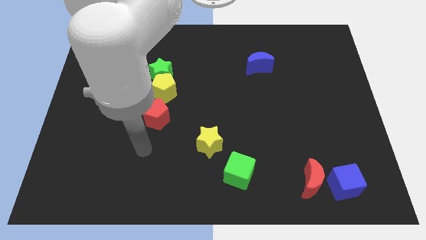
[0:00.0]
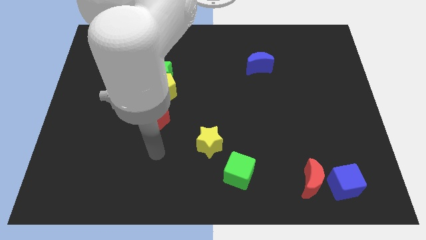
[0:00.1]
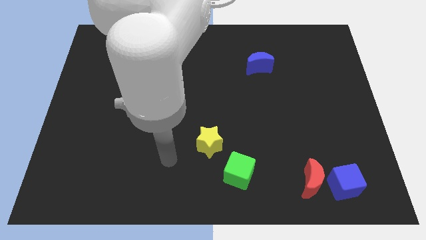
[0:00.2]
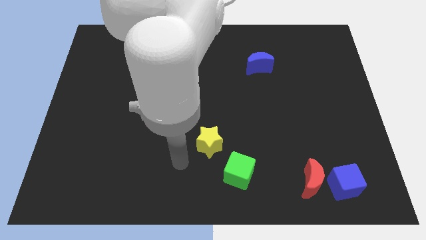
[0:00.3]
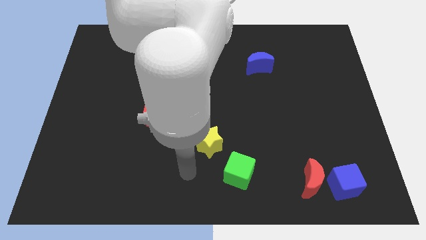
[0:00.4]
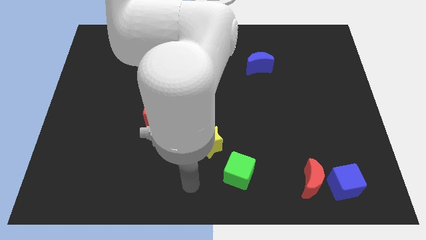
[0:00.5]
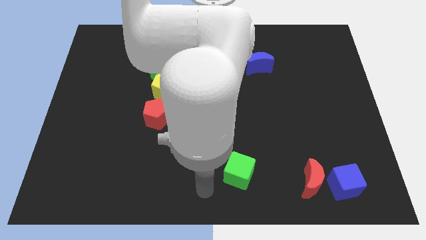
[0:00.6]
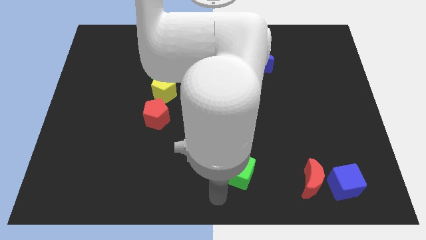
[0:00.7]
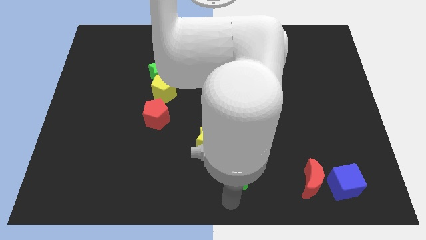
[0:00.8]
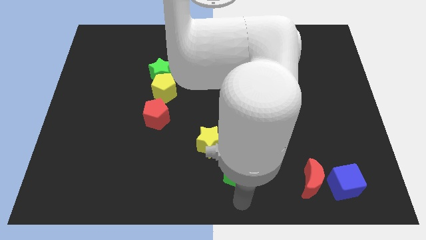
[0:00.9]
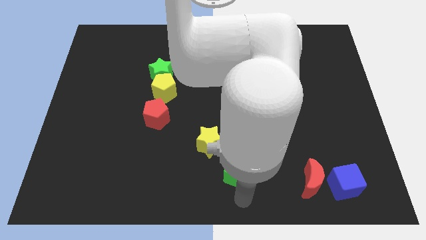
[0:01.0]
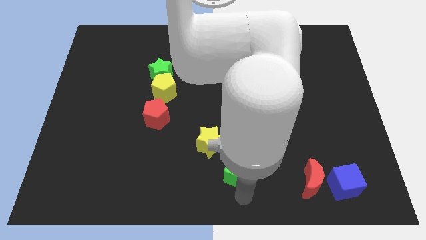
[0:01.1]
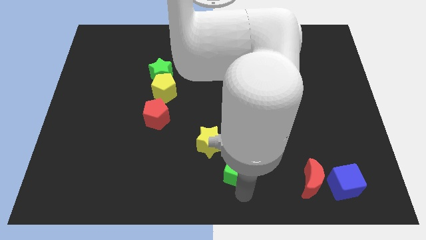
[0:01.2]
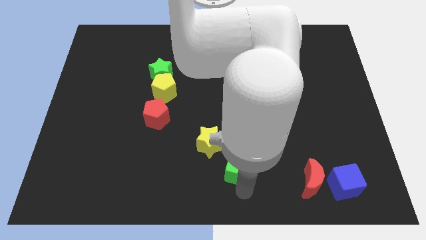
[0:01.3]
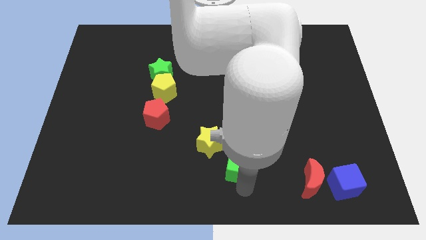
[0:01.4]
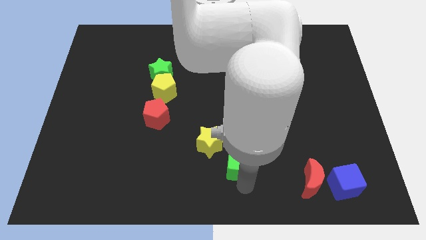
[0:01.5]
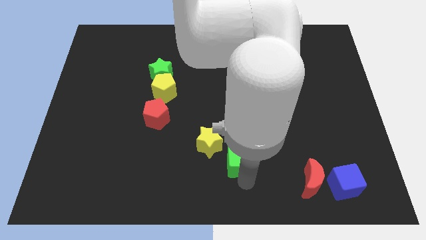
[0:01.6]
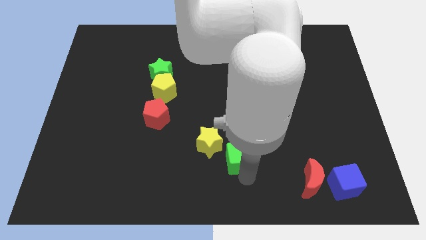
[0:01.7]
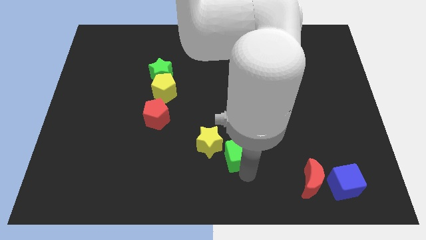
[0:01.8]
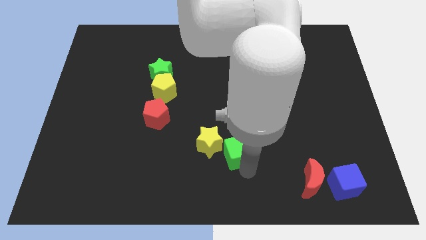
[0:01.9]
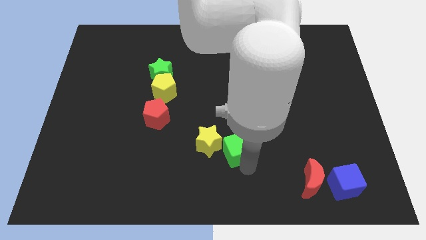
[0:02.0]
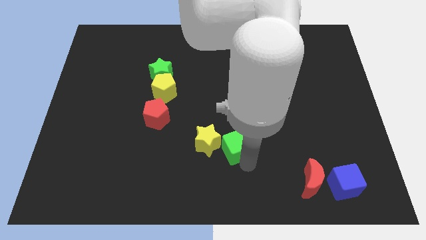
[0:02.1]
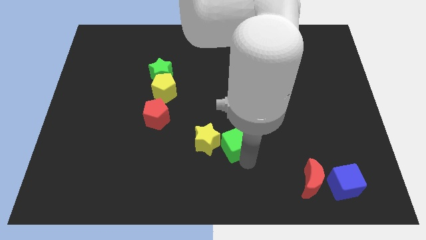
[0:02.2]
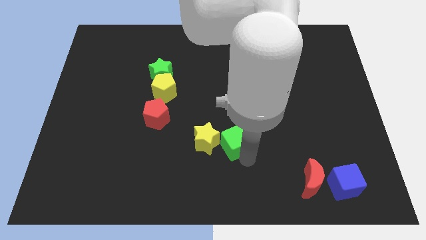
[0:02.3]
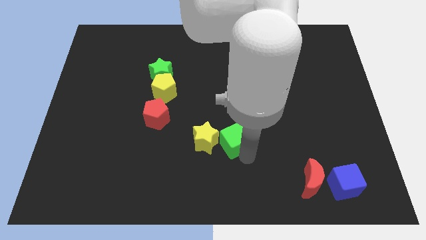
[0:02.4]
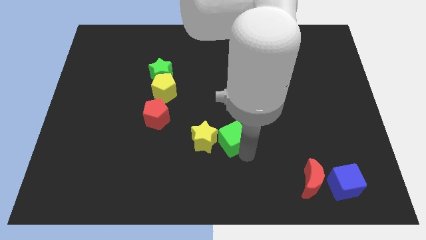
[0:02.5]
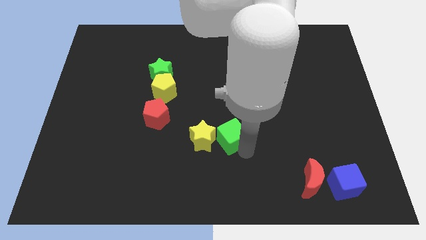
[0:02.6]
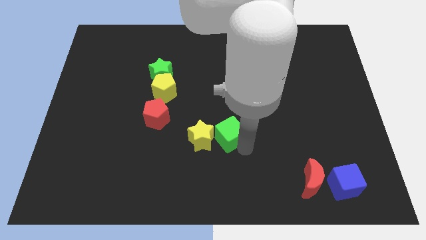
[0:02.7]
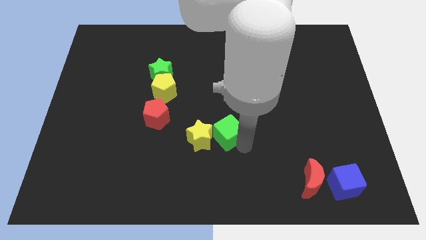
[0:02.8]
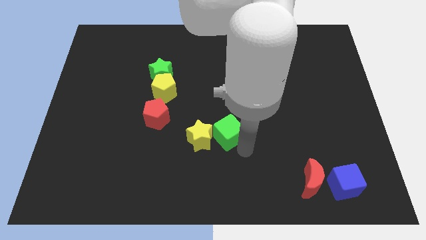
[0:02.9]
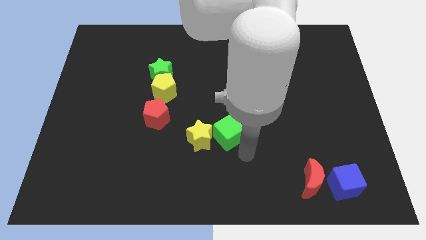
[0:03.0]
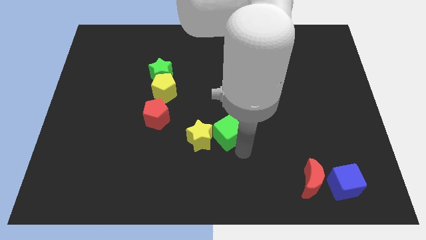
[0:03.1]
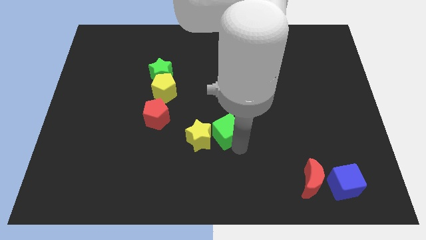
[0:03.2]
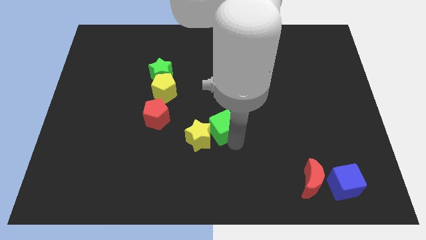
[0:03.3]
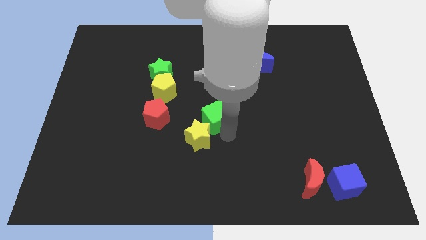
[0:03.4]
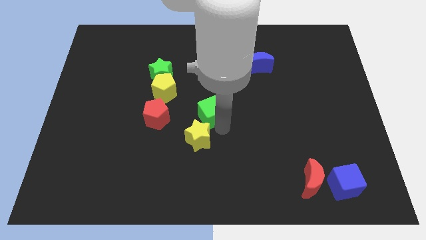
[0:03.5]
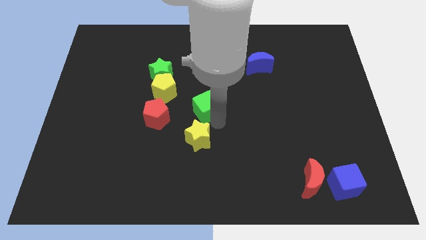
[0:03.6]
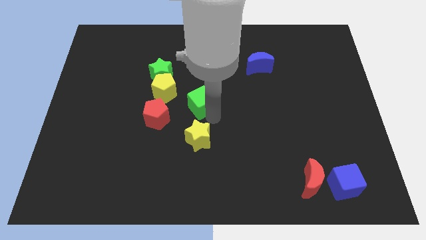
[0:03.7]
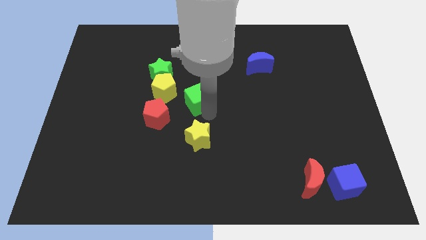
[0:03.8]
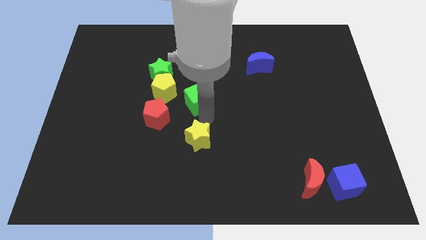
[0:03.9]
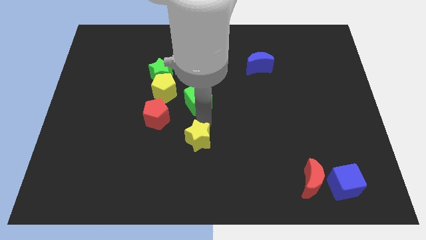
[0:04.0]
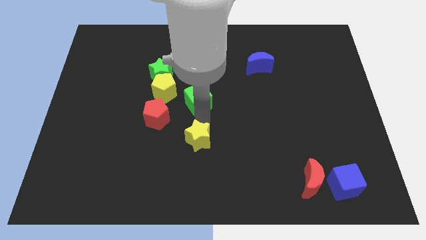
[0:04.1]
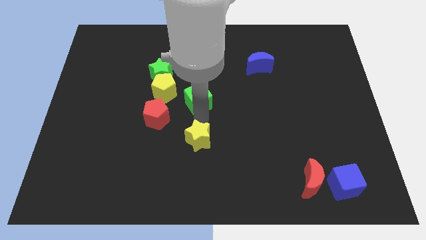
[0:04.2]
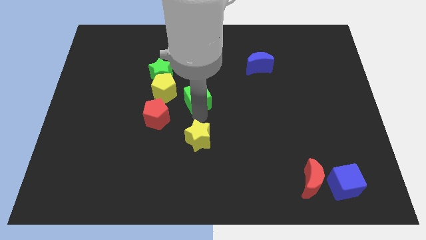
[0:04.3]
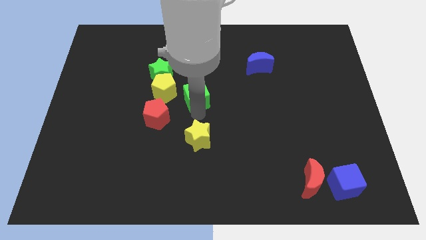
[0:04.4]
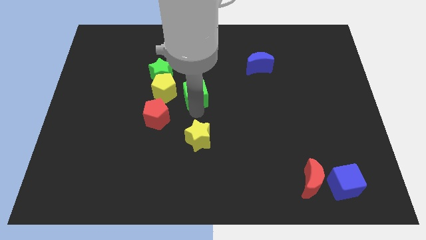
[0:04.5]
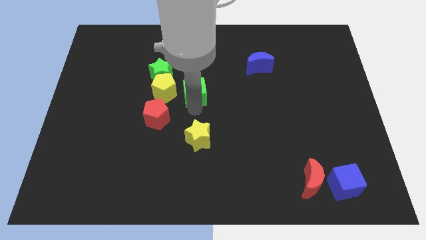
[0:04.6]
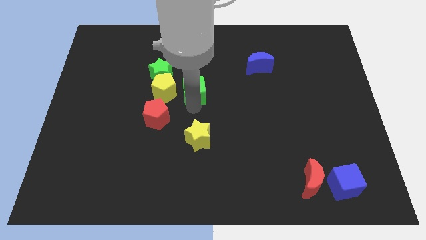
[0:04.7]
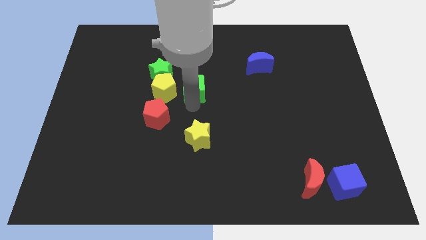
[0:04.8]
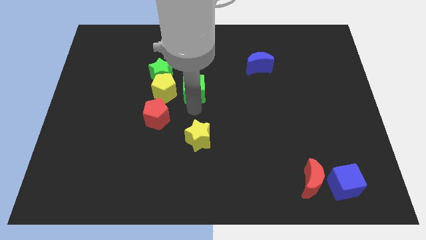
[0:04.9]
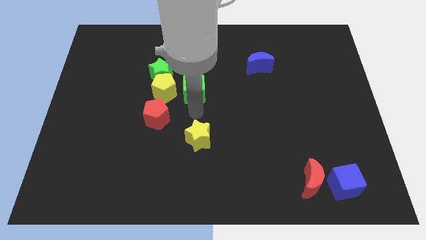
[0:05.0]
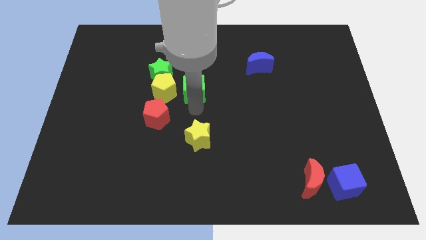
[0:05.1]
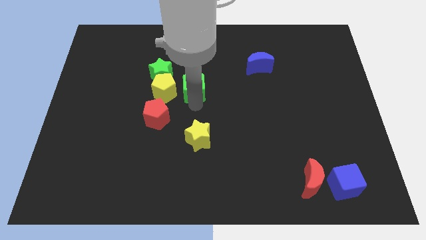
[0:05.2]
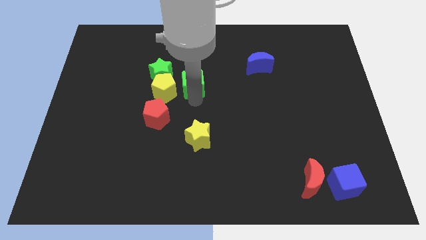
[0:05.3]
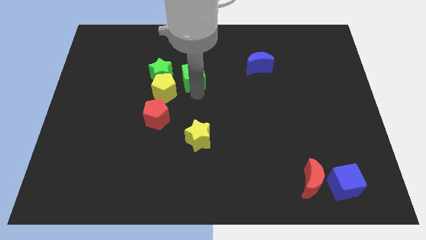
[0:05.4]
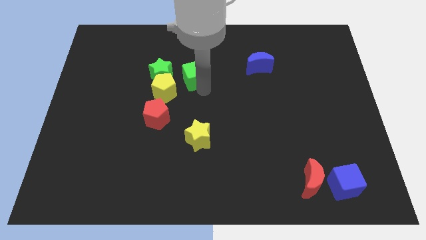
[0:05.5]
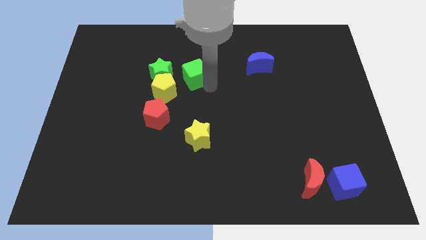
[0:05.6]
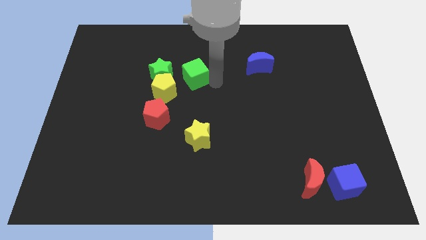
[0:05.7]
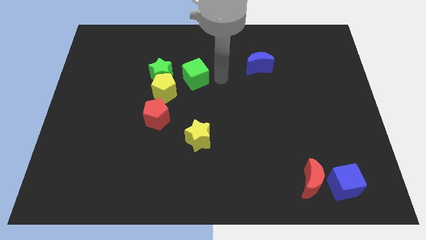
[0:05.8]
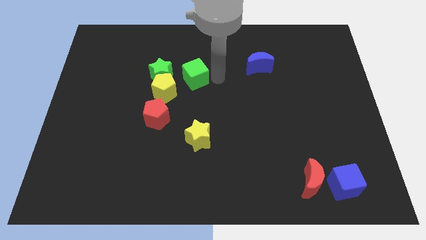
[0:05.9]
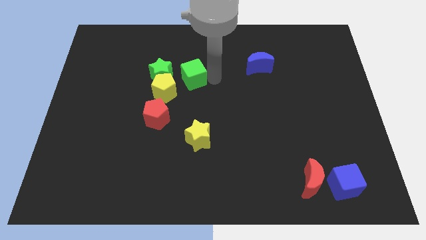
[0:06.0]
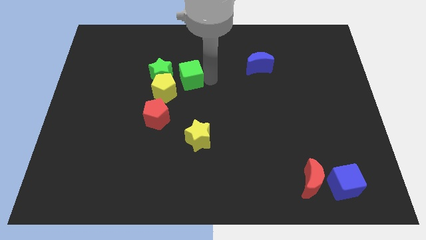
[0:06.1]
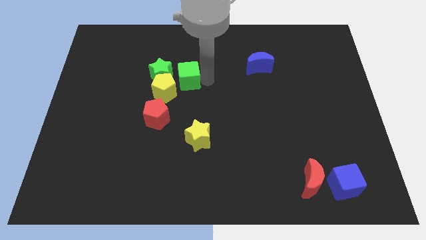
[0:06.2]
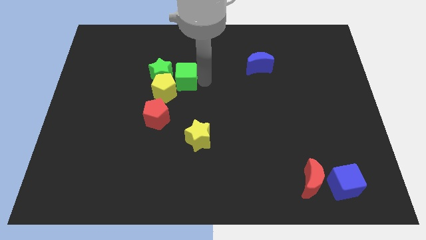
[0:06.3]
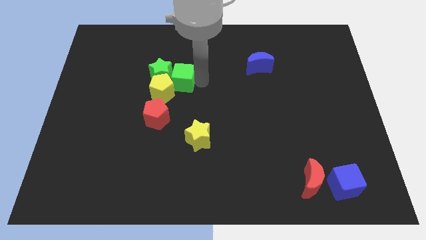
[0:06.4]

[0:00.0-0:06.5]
slide the green cube next to the green star

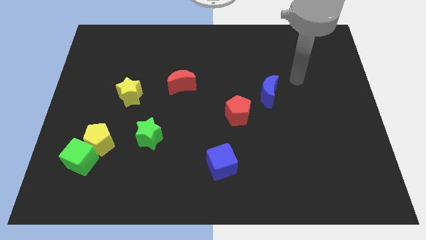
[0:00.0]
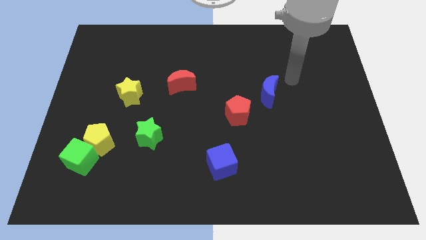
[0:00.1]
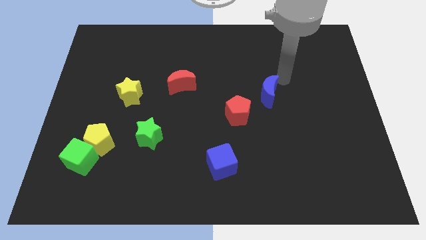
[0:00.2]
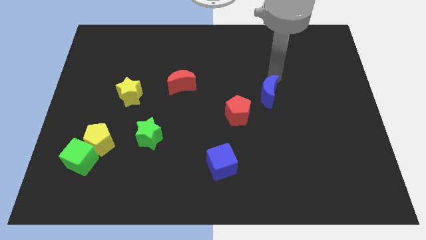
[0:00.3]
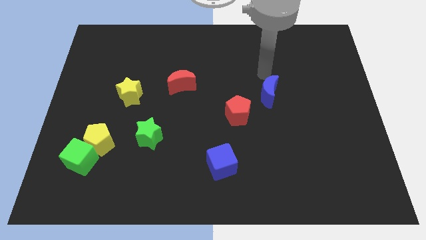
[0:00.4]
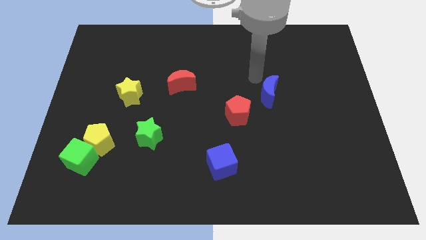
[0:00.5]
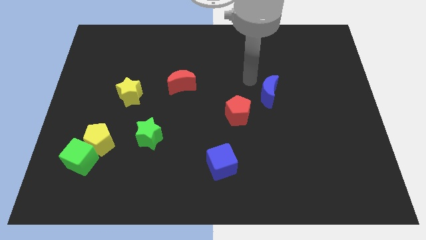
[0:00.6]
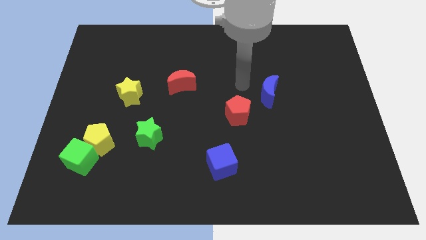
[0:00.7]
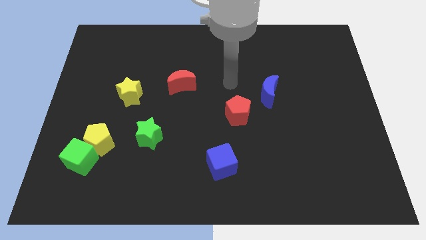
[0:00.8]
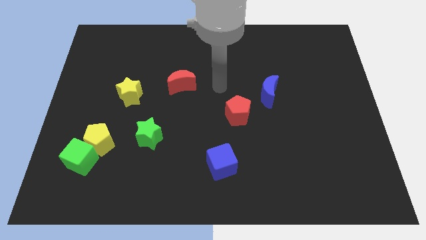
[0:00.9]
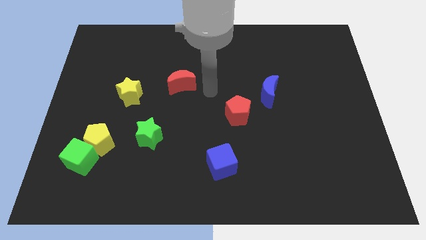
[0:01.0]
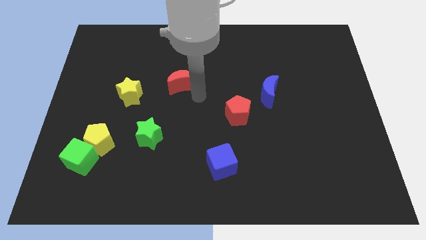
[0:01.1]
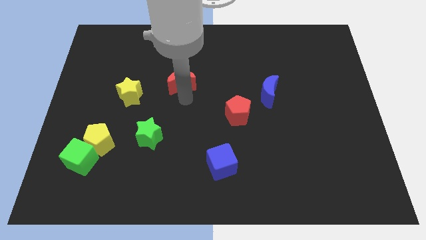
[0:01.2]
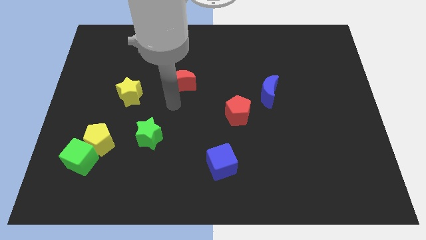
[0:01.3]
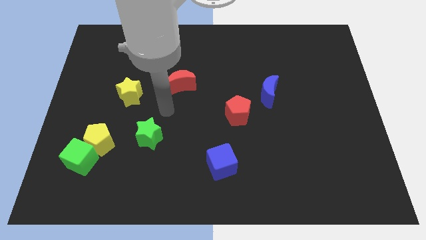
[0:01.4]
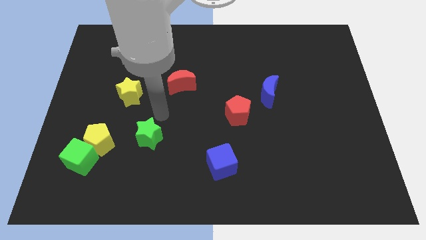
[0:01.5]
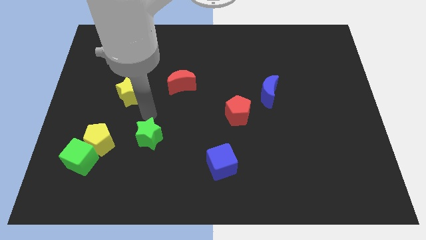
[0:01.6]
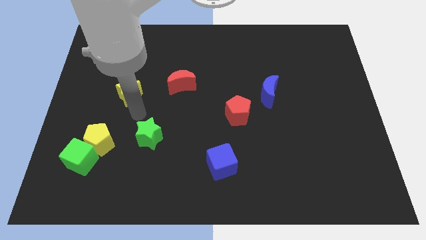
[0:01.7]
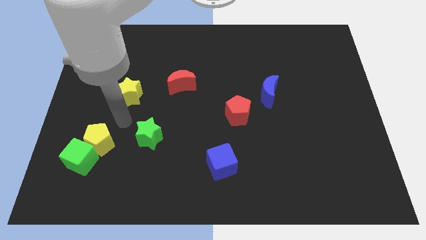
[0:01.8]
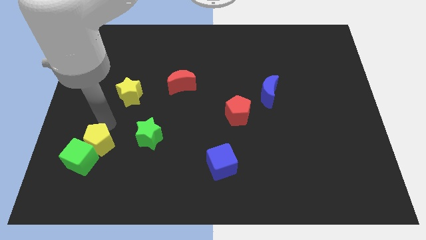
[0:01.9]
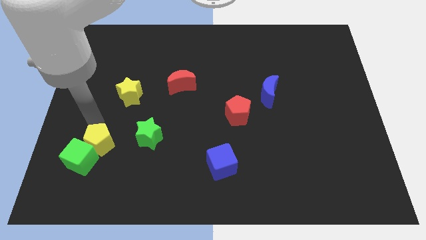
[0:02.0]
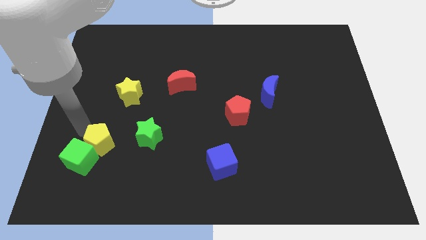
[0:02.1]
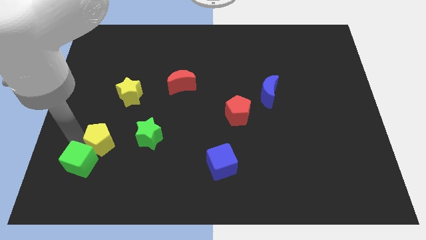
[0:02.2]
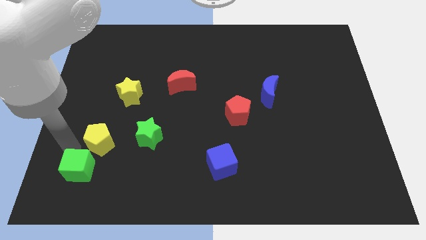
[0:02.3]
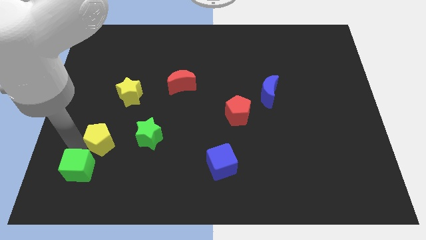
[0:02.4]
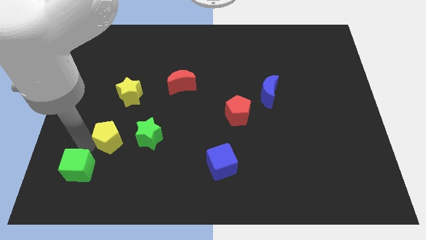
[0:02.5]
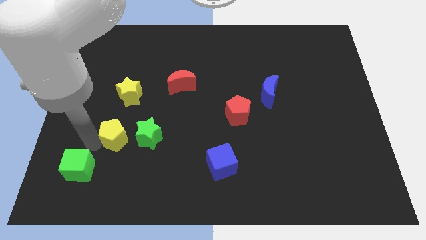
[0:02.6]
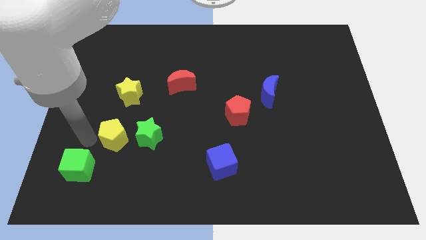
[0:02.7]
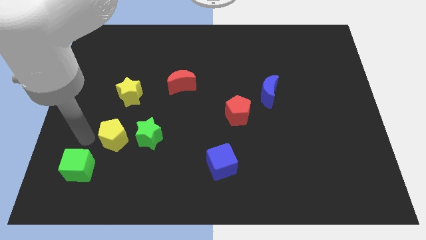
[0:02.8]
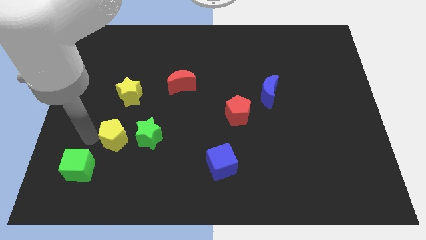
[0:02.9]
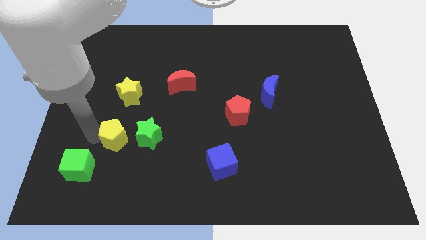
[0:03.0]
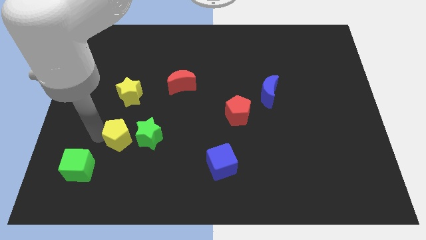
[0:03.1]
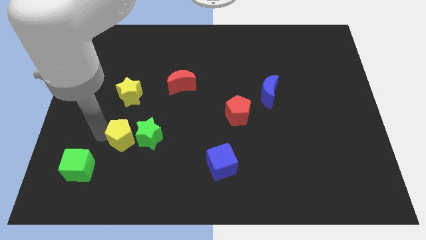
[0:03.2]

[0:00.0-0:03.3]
push the yellow pentagon next to the green star
